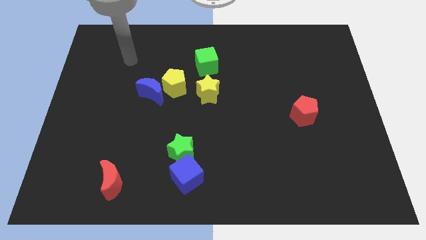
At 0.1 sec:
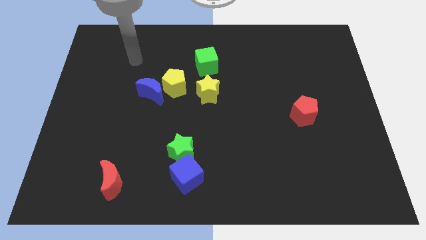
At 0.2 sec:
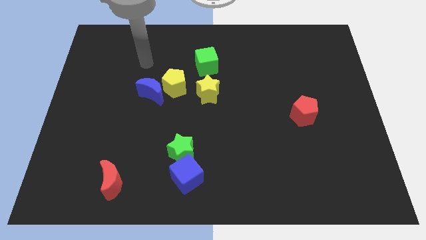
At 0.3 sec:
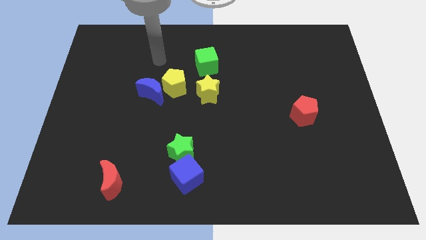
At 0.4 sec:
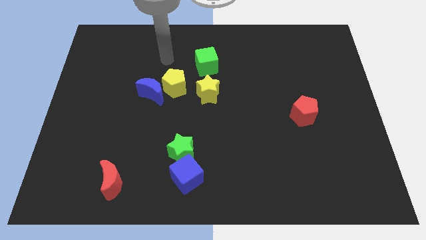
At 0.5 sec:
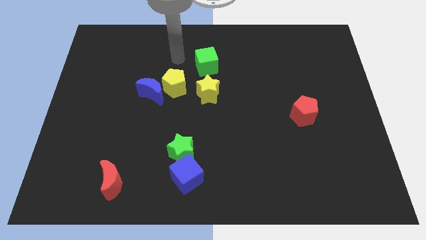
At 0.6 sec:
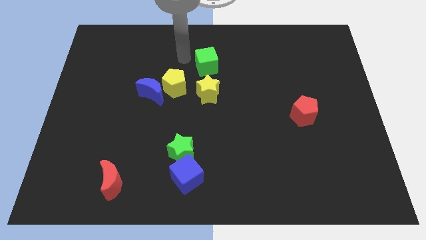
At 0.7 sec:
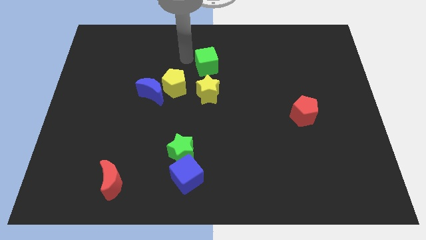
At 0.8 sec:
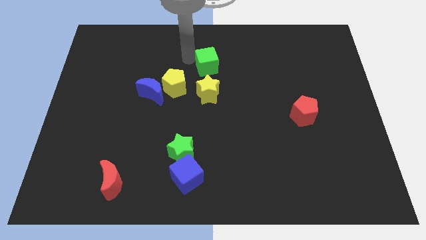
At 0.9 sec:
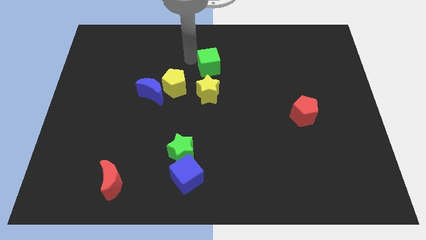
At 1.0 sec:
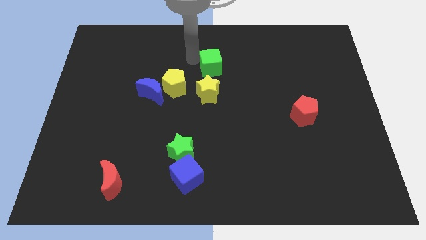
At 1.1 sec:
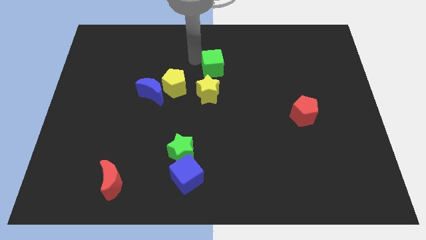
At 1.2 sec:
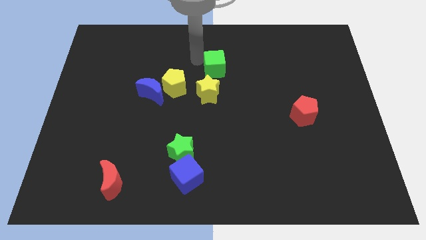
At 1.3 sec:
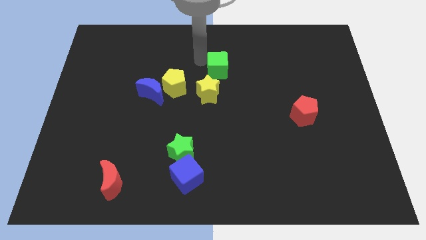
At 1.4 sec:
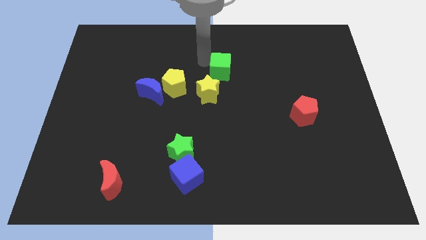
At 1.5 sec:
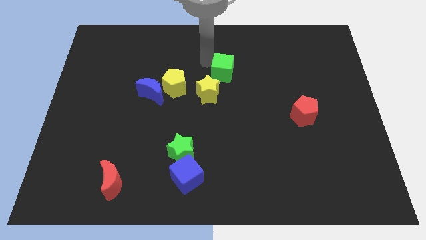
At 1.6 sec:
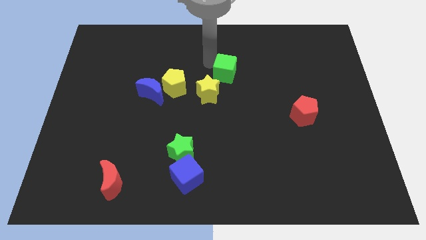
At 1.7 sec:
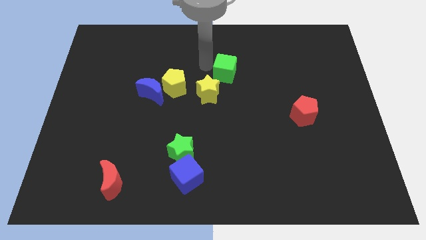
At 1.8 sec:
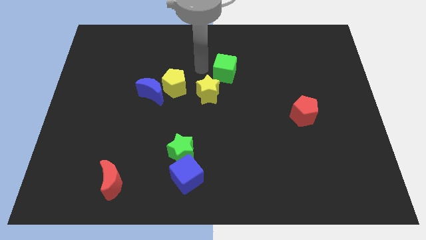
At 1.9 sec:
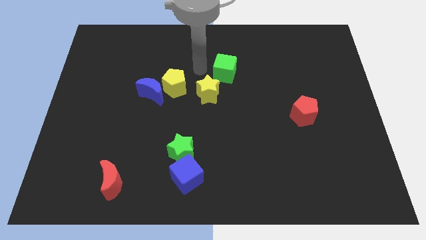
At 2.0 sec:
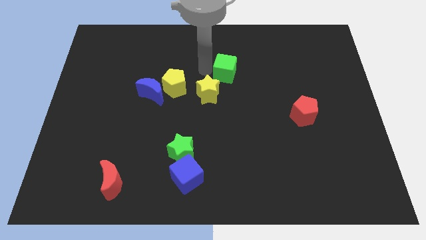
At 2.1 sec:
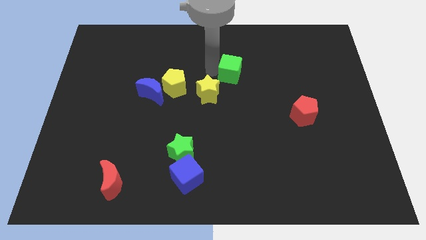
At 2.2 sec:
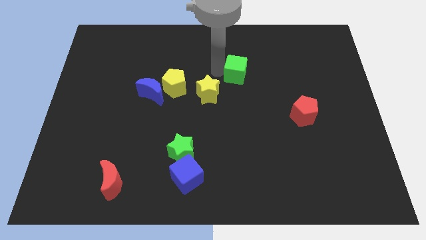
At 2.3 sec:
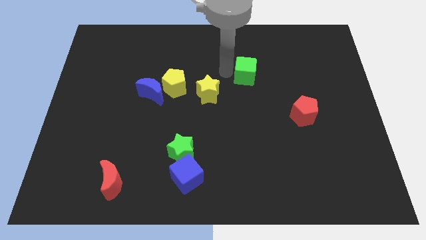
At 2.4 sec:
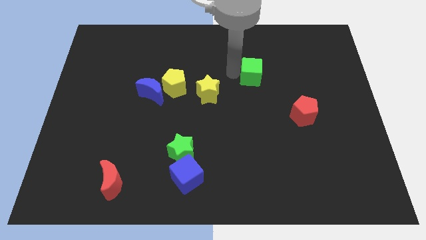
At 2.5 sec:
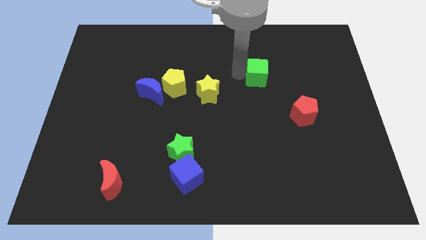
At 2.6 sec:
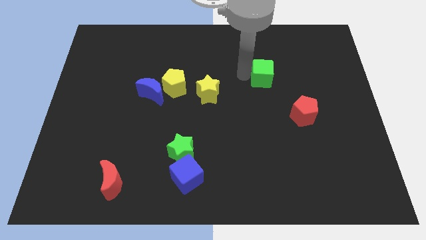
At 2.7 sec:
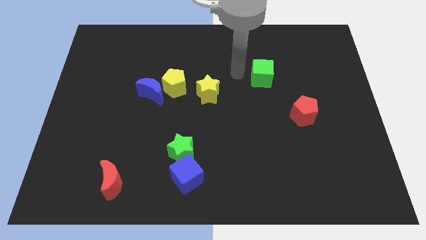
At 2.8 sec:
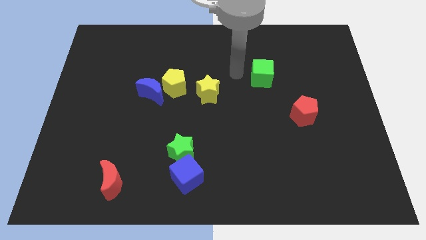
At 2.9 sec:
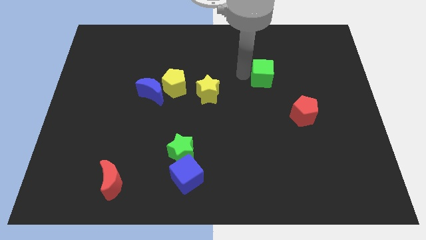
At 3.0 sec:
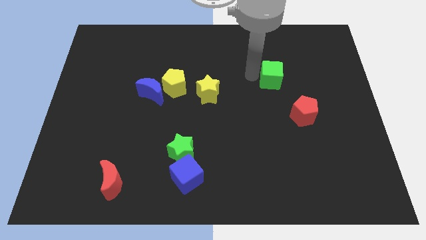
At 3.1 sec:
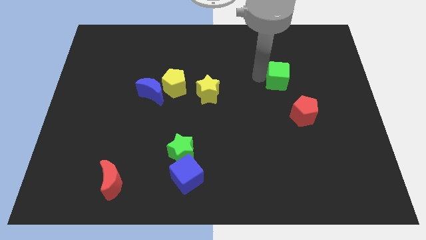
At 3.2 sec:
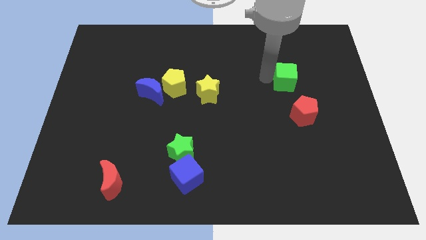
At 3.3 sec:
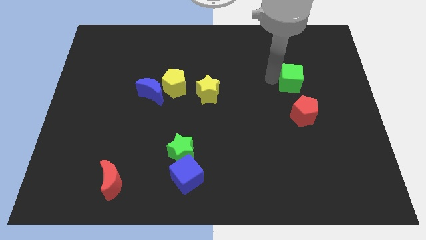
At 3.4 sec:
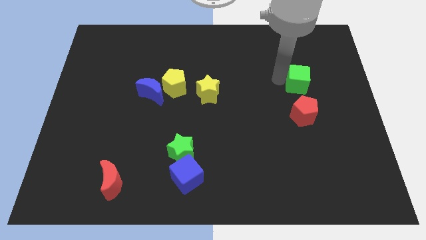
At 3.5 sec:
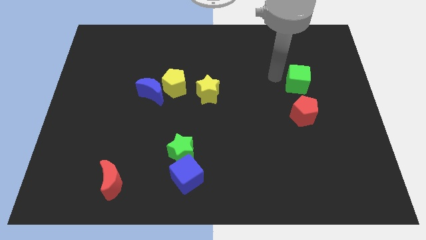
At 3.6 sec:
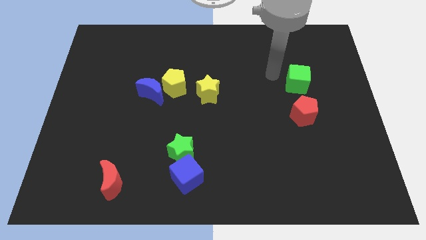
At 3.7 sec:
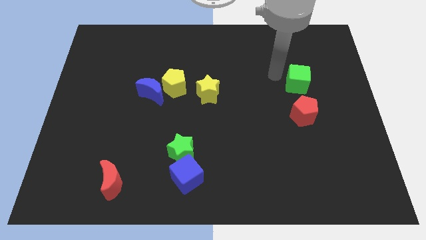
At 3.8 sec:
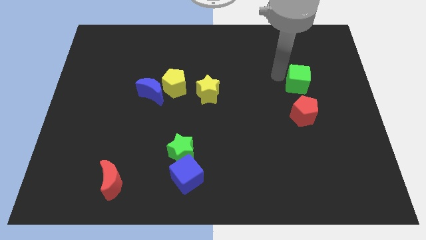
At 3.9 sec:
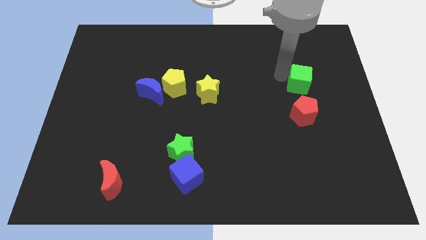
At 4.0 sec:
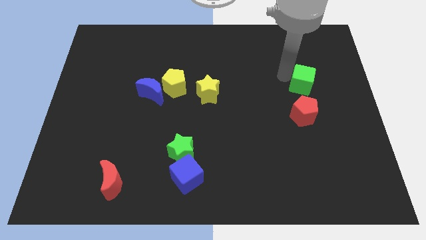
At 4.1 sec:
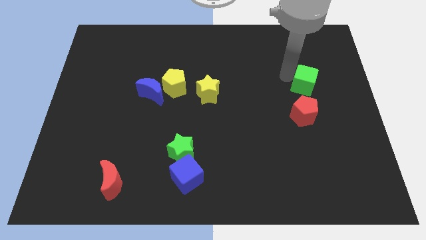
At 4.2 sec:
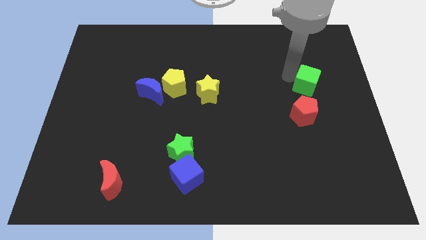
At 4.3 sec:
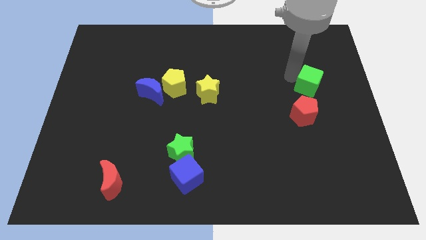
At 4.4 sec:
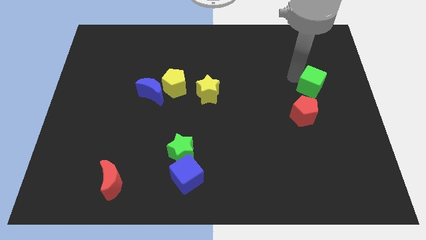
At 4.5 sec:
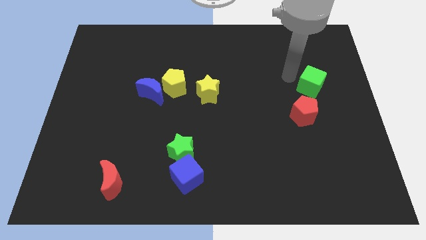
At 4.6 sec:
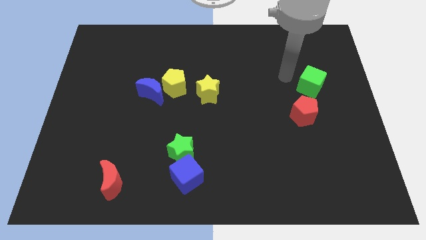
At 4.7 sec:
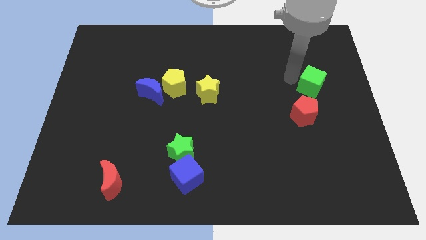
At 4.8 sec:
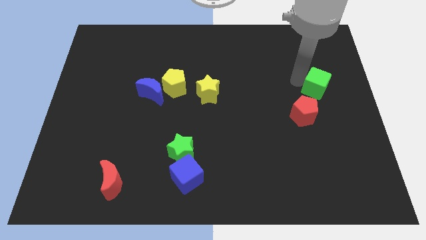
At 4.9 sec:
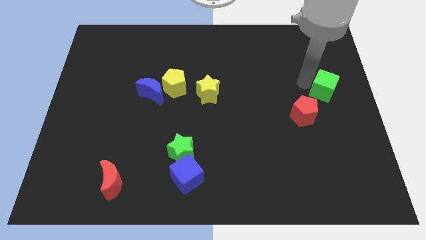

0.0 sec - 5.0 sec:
push the green cube to the right side

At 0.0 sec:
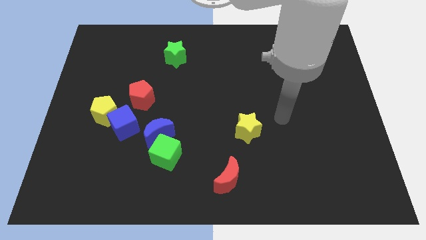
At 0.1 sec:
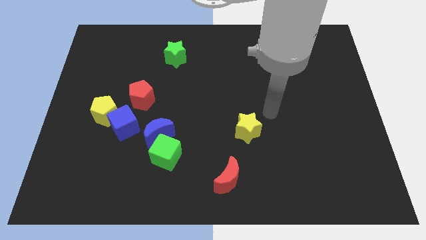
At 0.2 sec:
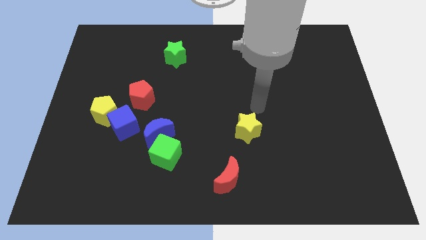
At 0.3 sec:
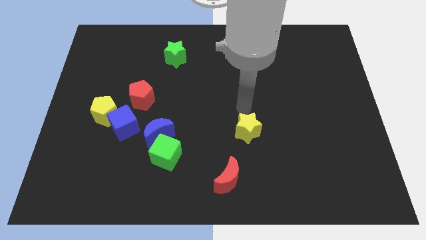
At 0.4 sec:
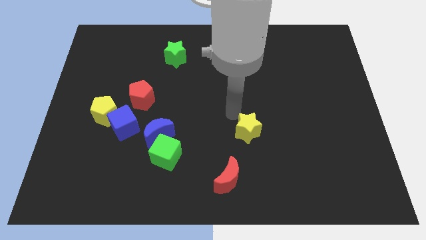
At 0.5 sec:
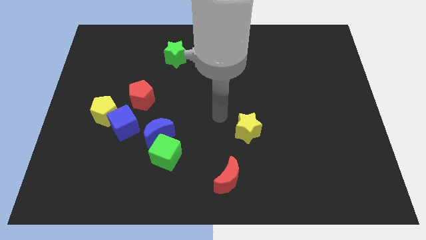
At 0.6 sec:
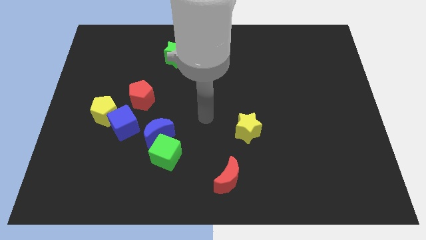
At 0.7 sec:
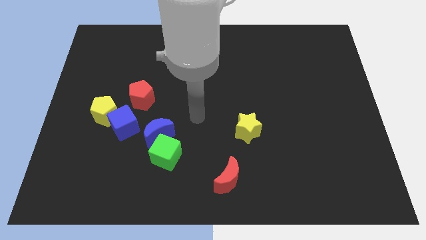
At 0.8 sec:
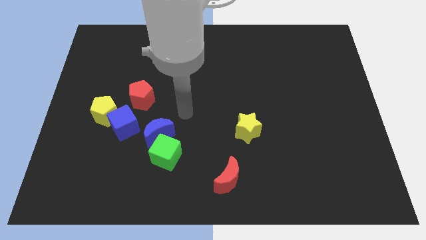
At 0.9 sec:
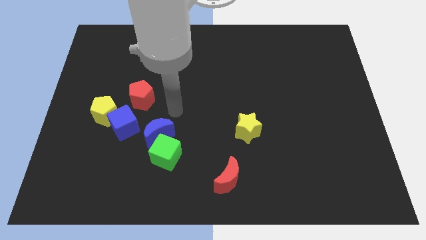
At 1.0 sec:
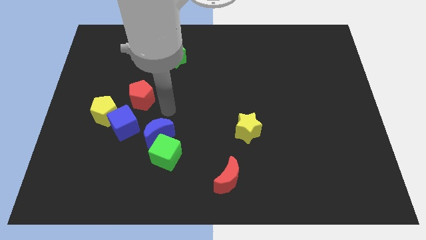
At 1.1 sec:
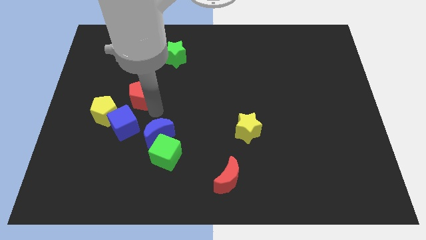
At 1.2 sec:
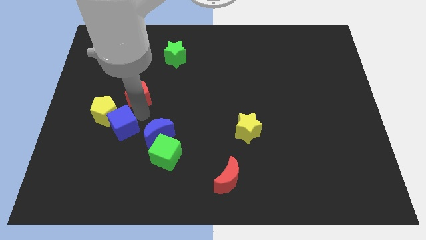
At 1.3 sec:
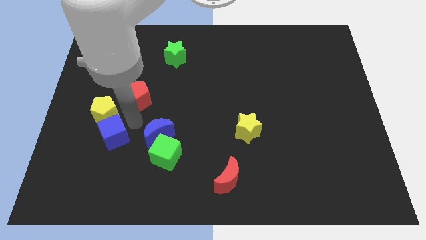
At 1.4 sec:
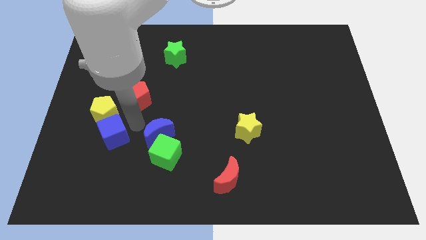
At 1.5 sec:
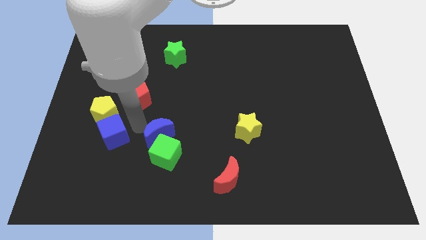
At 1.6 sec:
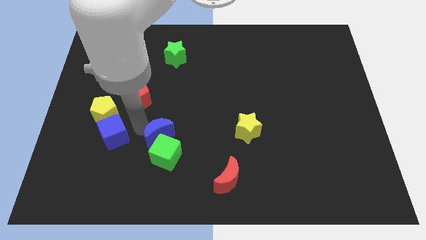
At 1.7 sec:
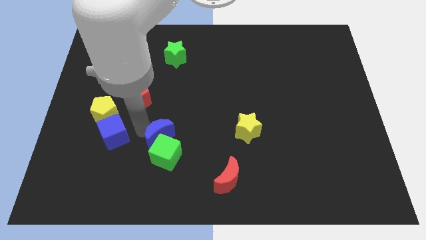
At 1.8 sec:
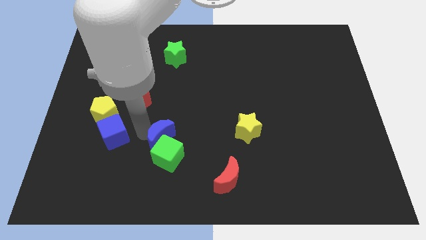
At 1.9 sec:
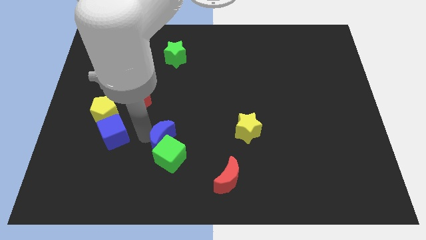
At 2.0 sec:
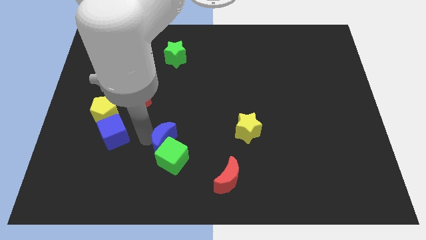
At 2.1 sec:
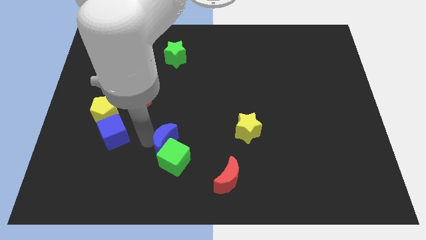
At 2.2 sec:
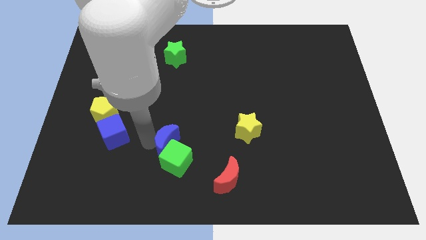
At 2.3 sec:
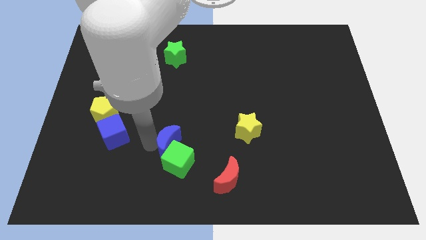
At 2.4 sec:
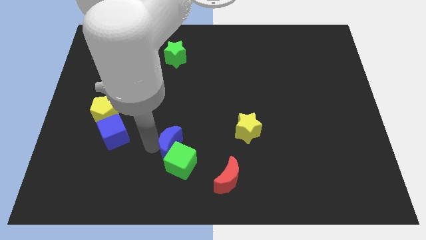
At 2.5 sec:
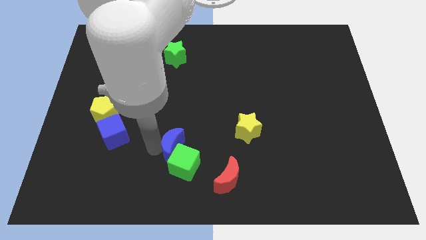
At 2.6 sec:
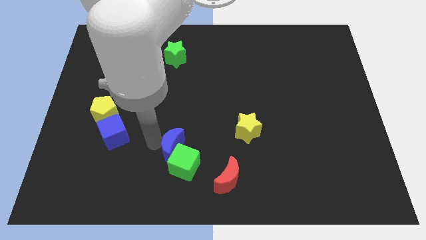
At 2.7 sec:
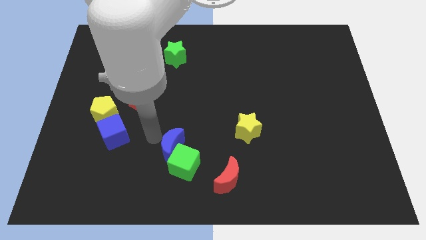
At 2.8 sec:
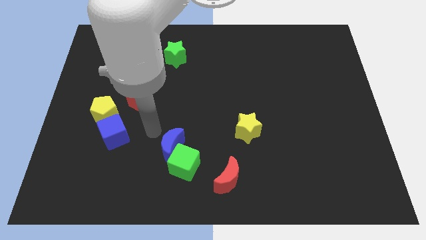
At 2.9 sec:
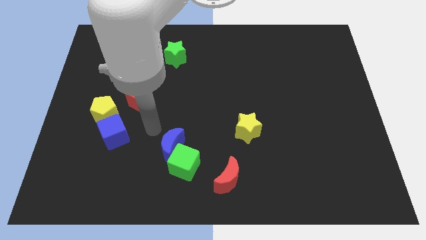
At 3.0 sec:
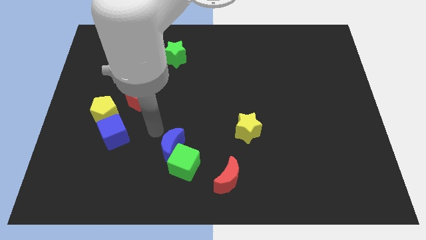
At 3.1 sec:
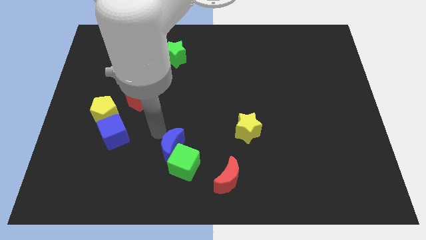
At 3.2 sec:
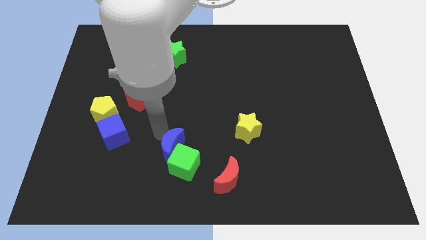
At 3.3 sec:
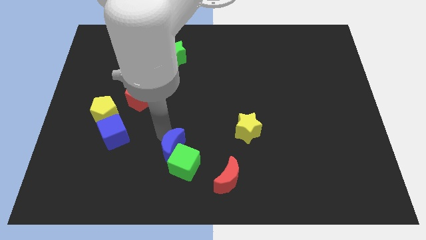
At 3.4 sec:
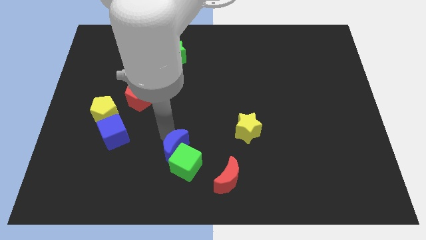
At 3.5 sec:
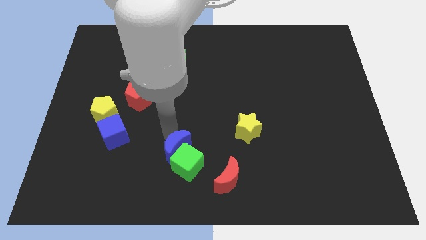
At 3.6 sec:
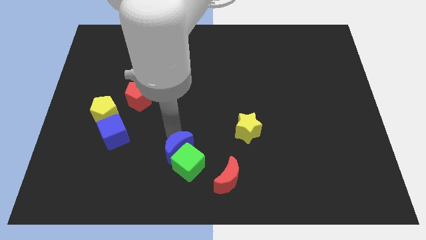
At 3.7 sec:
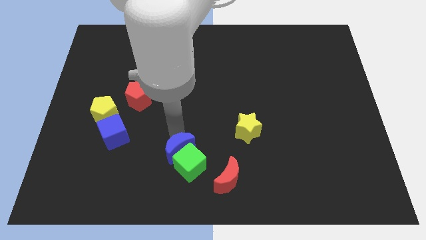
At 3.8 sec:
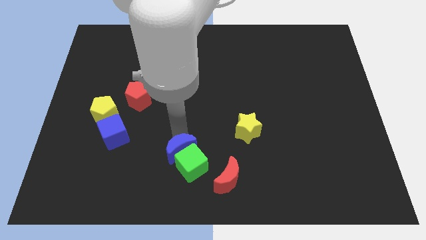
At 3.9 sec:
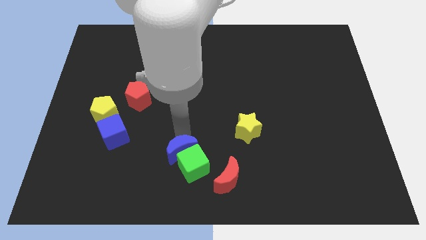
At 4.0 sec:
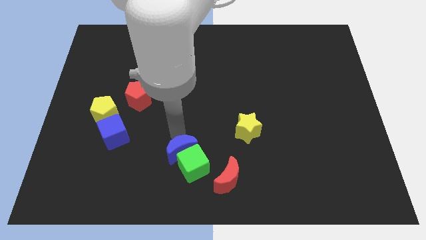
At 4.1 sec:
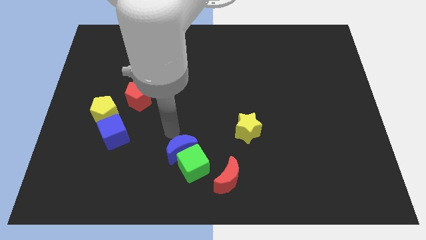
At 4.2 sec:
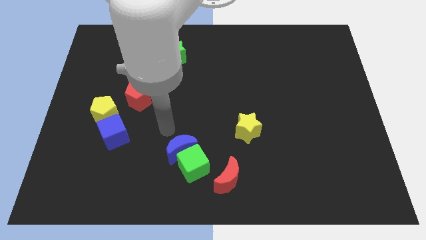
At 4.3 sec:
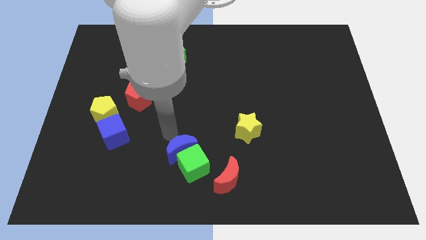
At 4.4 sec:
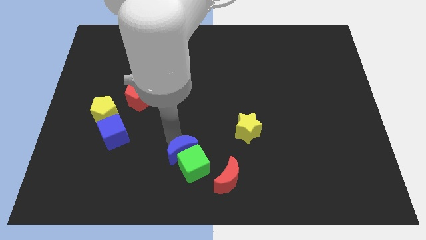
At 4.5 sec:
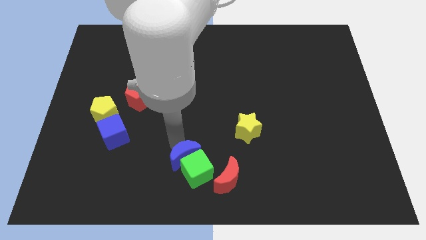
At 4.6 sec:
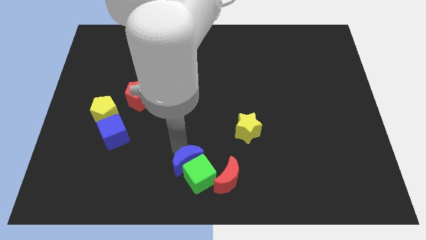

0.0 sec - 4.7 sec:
move the blue moon to the bottom side
